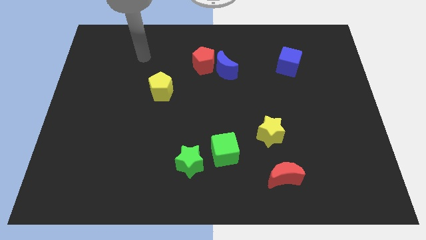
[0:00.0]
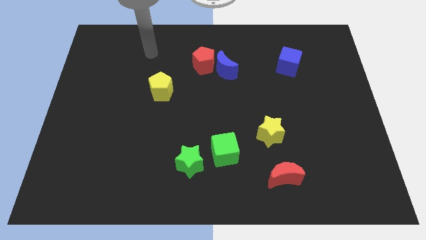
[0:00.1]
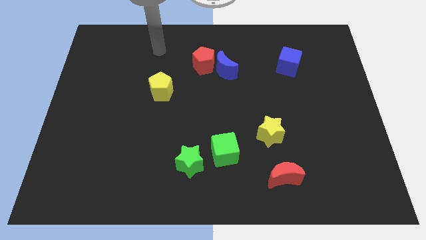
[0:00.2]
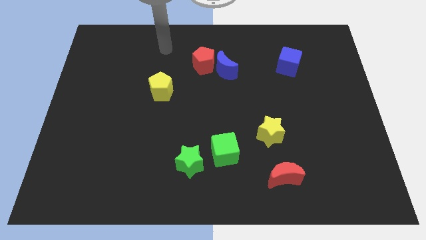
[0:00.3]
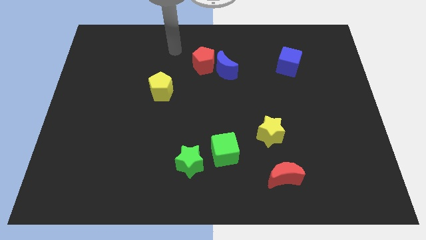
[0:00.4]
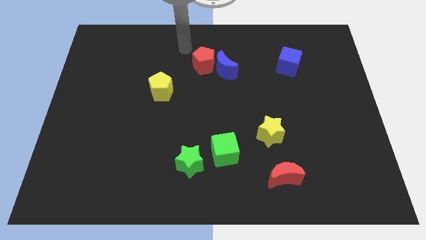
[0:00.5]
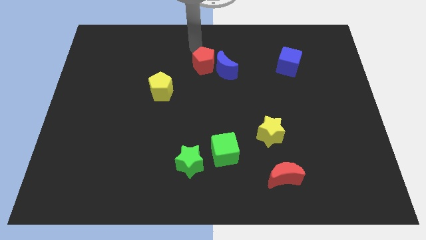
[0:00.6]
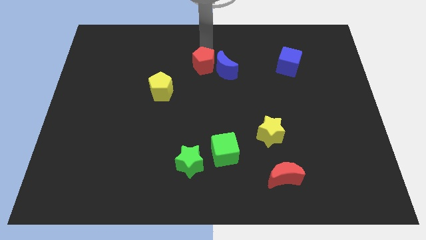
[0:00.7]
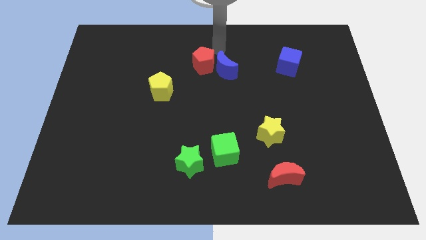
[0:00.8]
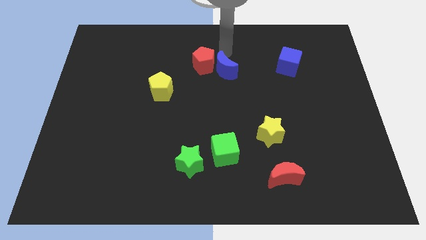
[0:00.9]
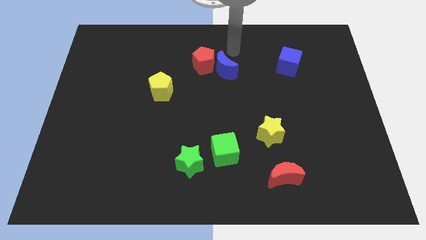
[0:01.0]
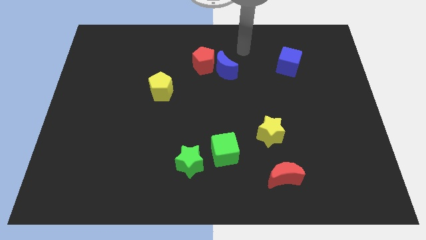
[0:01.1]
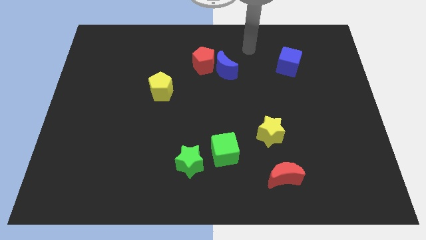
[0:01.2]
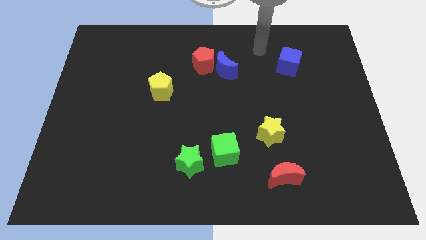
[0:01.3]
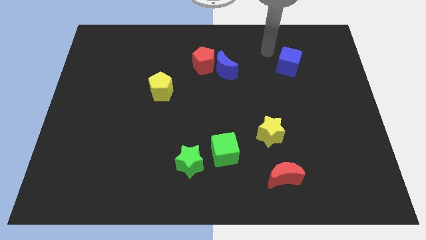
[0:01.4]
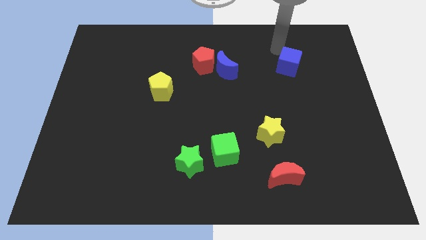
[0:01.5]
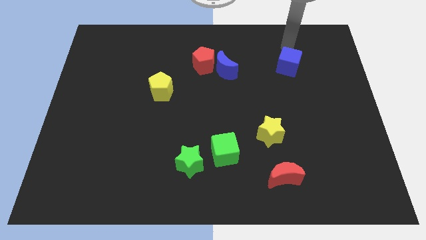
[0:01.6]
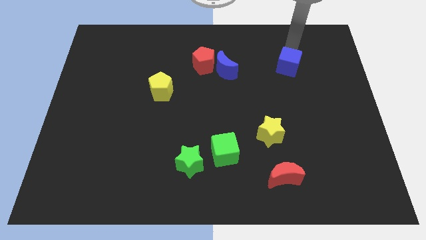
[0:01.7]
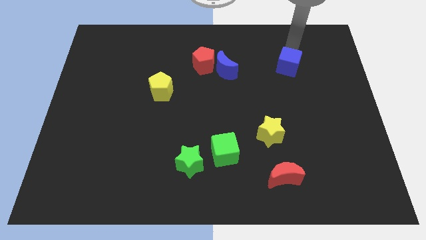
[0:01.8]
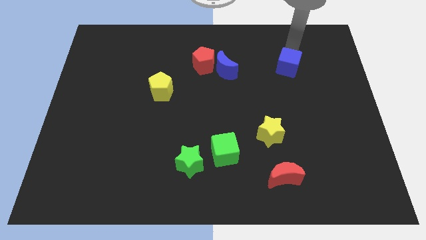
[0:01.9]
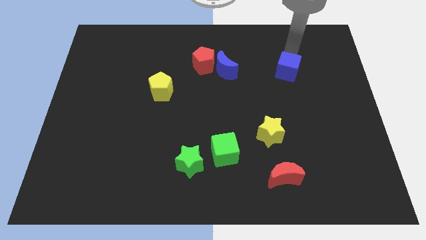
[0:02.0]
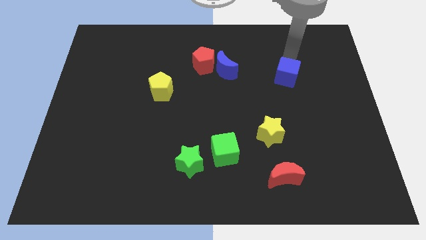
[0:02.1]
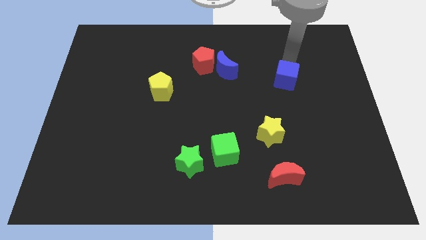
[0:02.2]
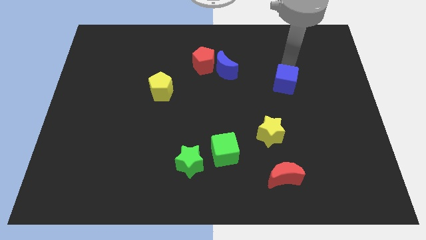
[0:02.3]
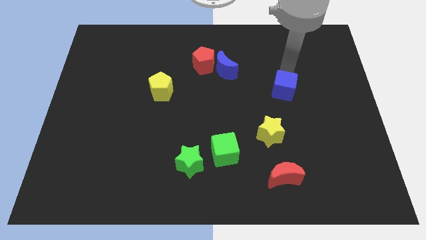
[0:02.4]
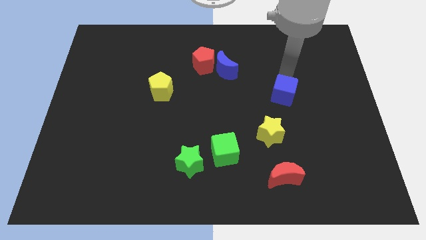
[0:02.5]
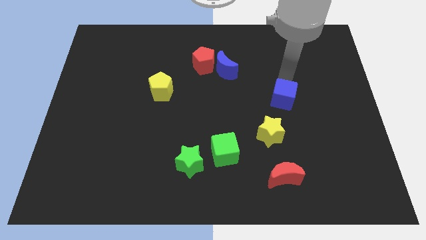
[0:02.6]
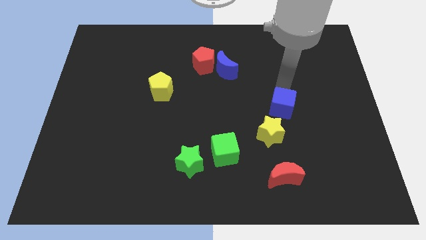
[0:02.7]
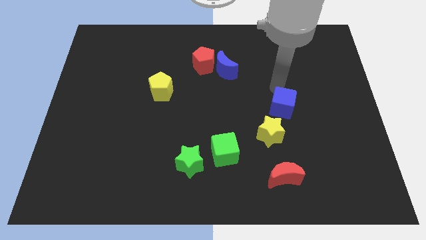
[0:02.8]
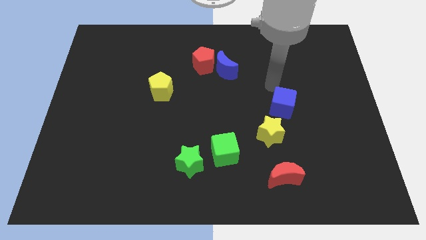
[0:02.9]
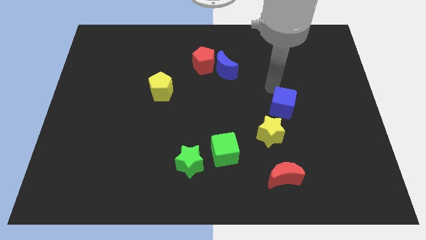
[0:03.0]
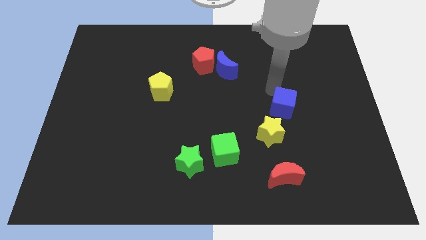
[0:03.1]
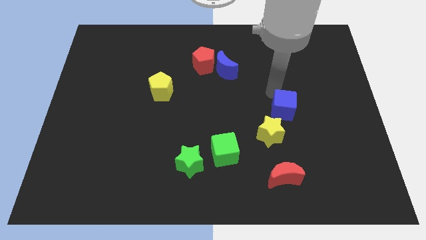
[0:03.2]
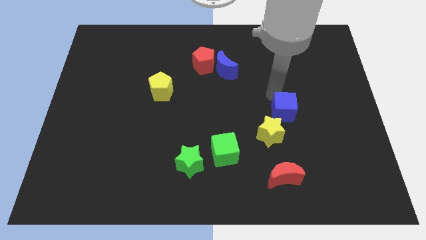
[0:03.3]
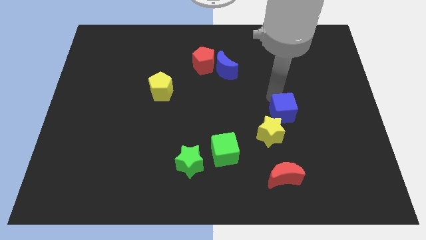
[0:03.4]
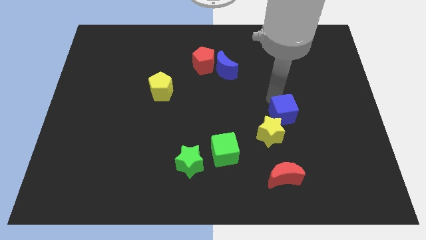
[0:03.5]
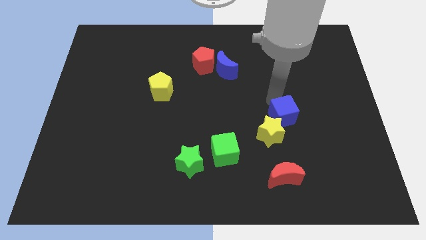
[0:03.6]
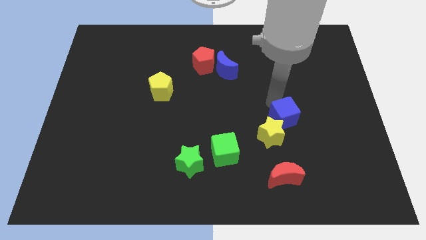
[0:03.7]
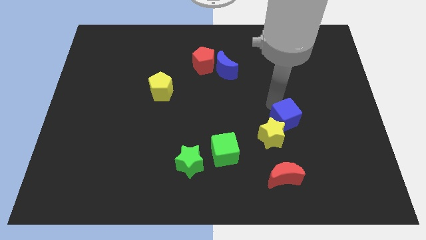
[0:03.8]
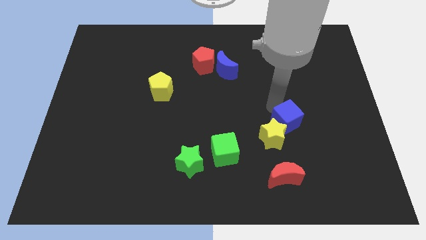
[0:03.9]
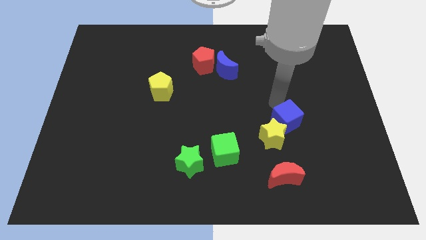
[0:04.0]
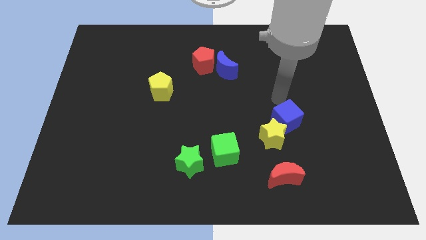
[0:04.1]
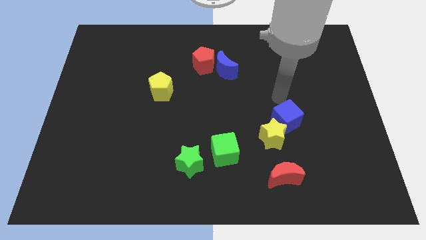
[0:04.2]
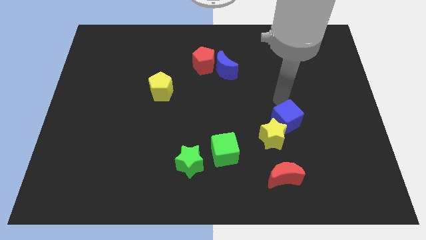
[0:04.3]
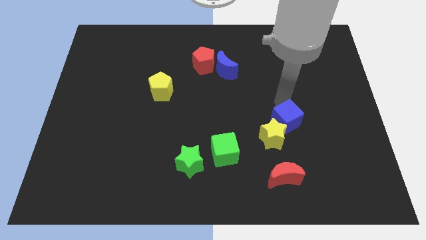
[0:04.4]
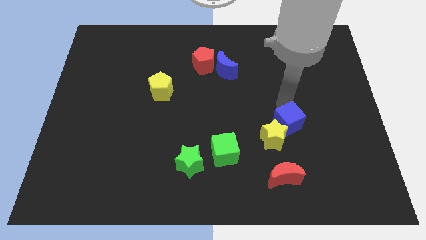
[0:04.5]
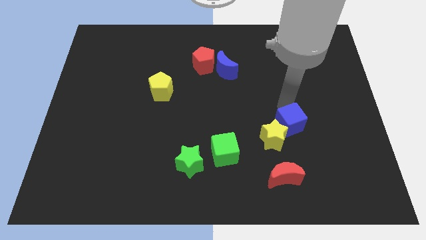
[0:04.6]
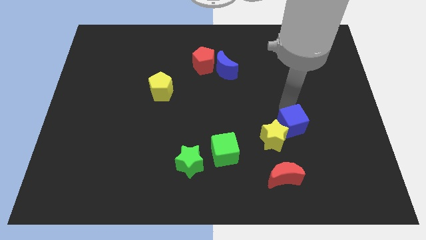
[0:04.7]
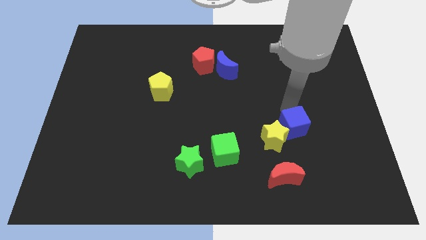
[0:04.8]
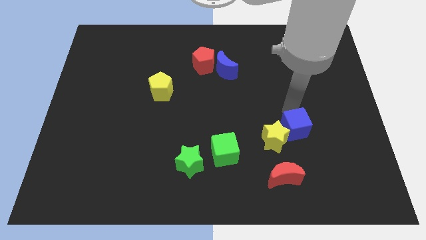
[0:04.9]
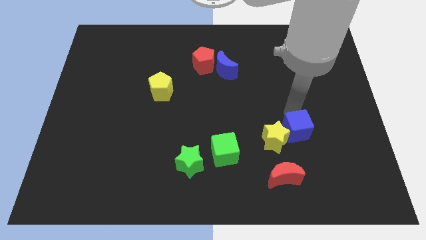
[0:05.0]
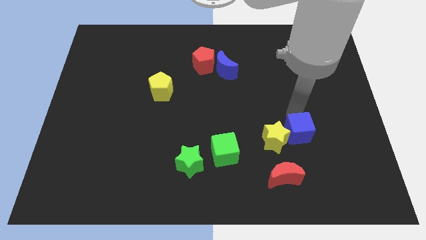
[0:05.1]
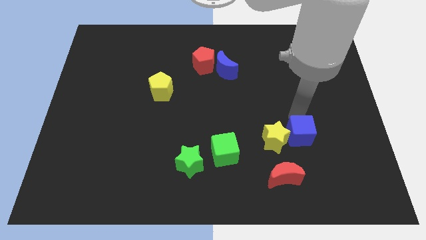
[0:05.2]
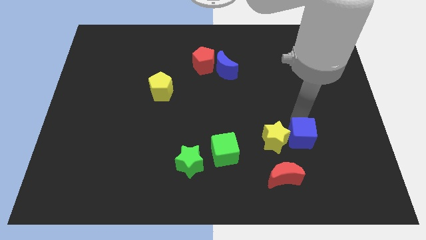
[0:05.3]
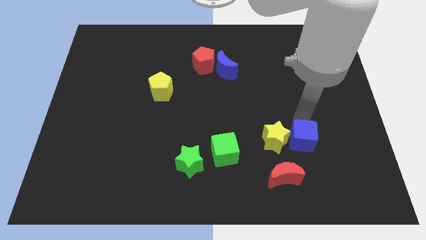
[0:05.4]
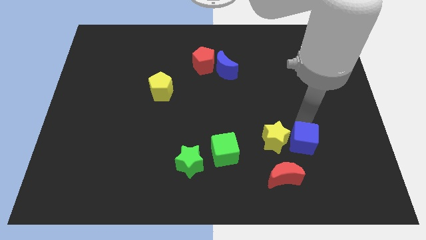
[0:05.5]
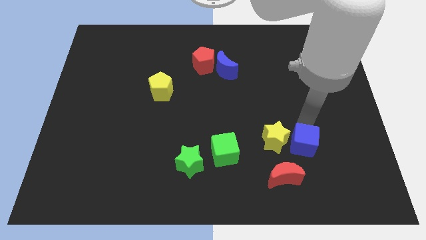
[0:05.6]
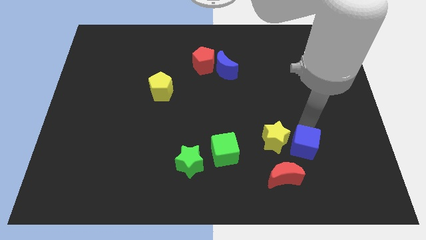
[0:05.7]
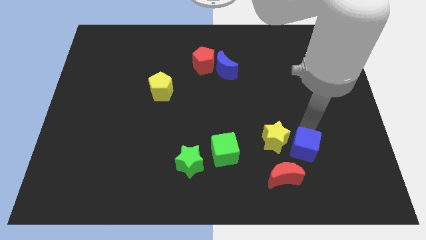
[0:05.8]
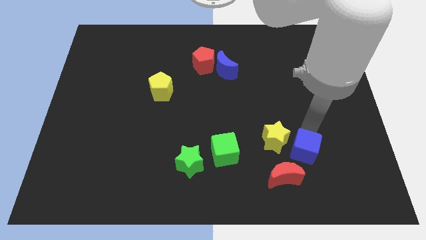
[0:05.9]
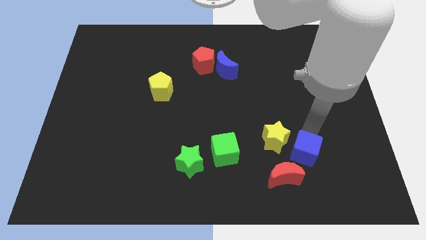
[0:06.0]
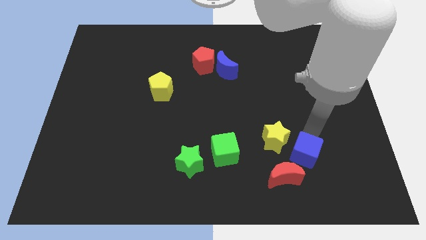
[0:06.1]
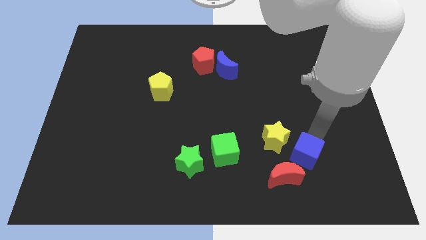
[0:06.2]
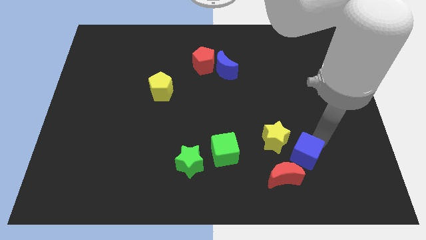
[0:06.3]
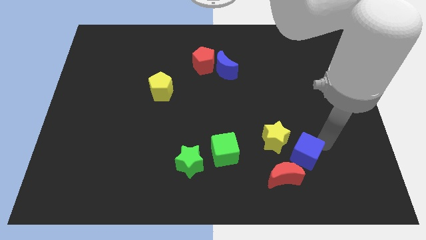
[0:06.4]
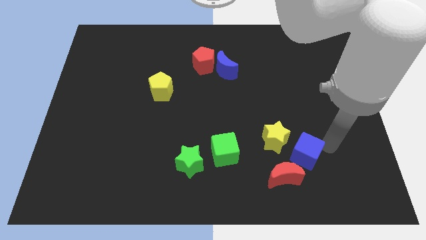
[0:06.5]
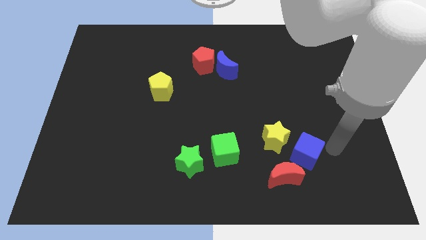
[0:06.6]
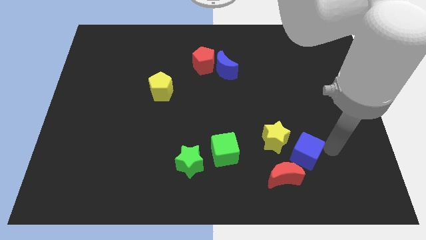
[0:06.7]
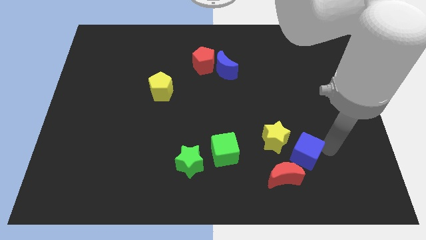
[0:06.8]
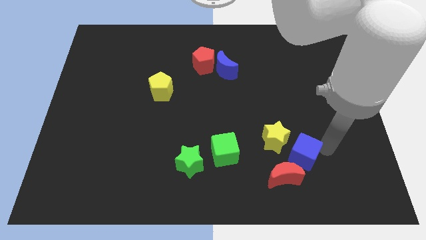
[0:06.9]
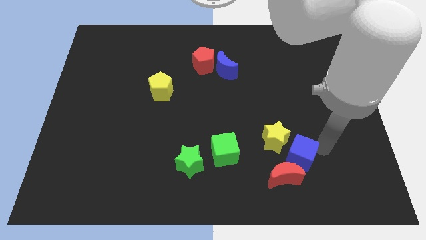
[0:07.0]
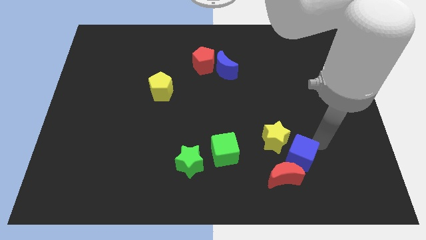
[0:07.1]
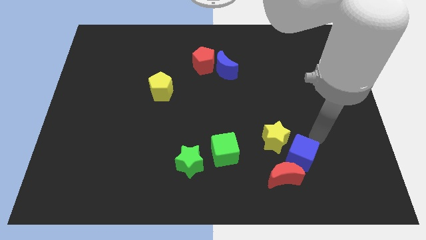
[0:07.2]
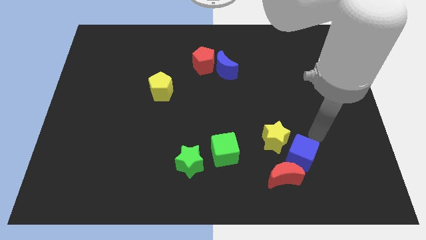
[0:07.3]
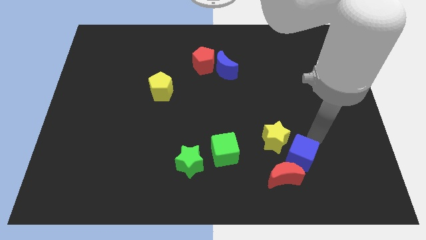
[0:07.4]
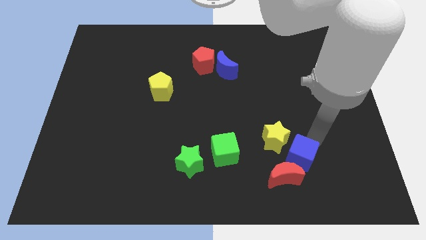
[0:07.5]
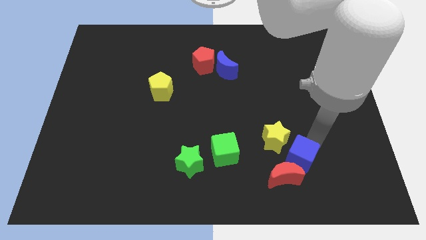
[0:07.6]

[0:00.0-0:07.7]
push the blue cube to the red moon

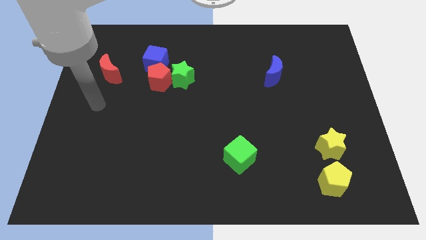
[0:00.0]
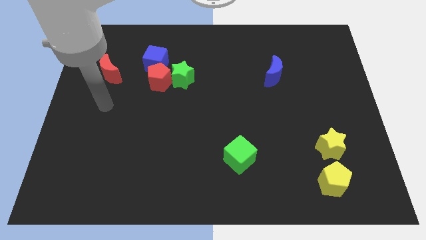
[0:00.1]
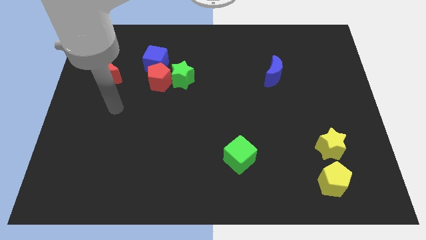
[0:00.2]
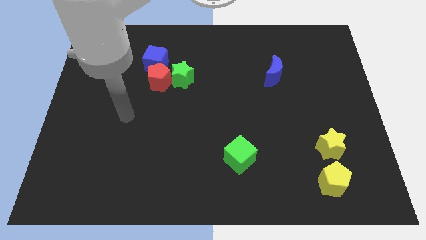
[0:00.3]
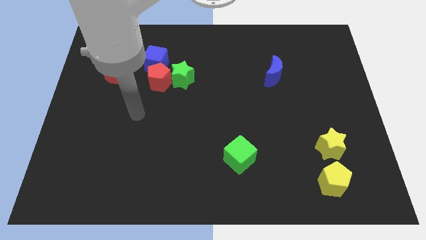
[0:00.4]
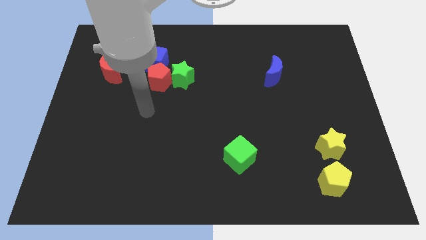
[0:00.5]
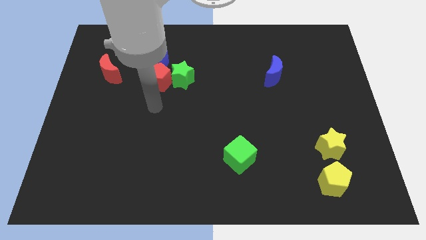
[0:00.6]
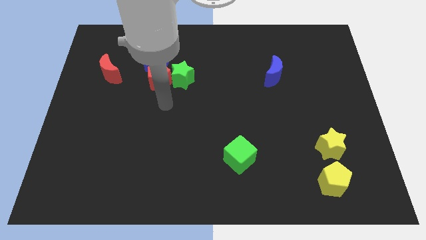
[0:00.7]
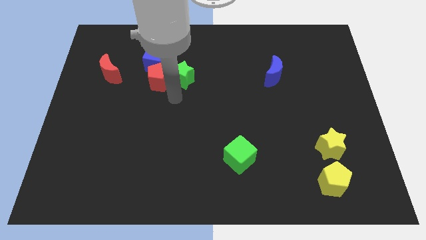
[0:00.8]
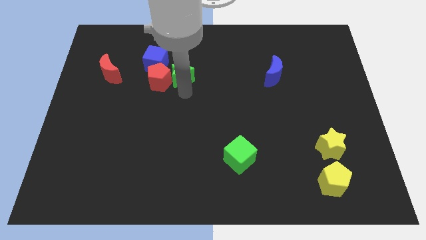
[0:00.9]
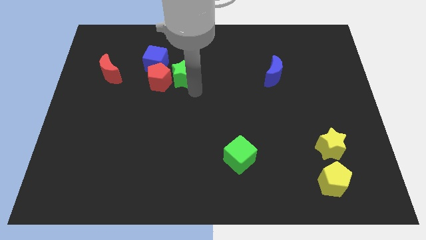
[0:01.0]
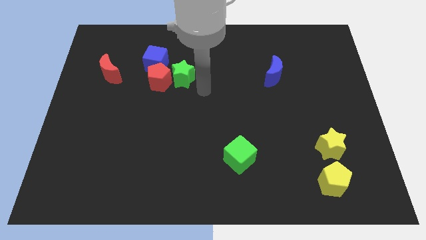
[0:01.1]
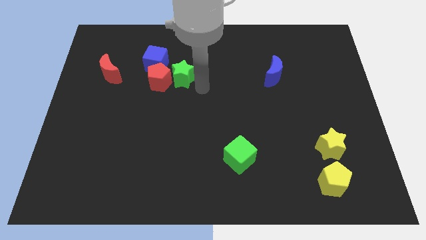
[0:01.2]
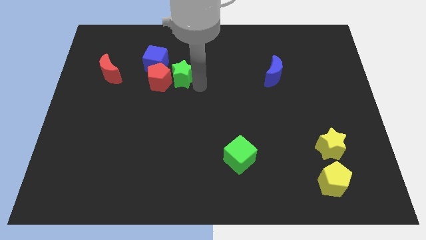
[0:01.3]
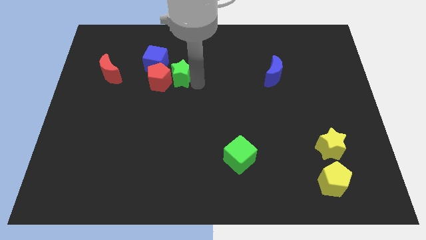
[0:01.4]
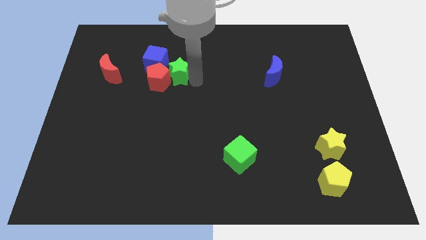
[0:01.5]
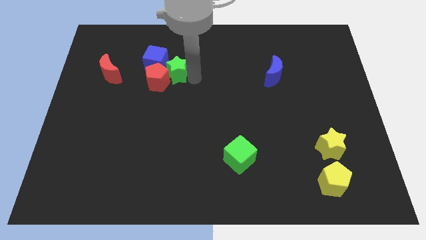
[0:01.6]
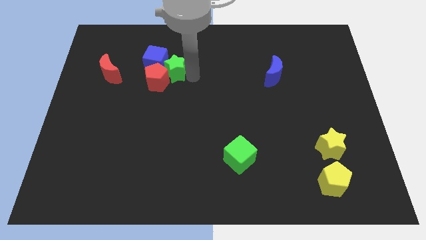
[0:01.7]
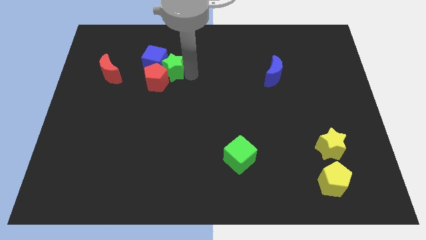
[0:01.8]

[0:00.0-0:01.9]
slide the green star to the blue cube
